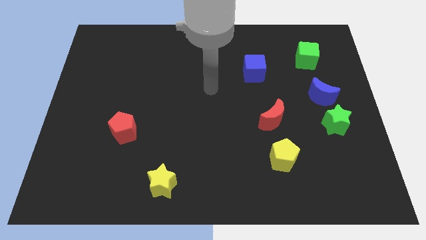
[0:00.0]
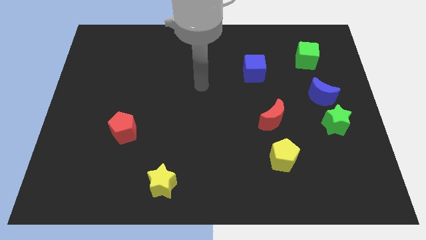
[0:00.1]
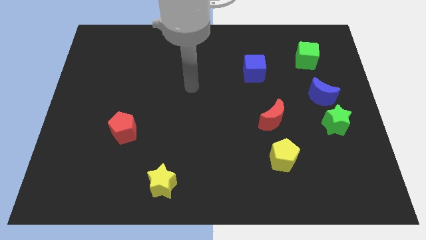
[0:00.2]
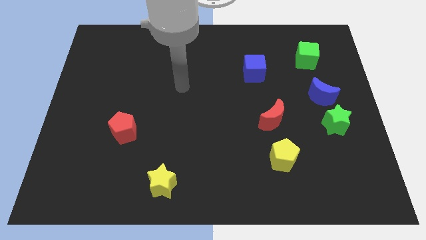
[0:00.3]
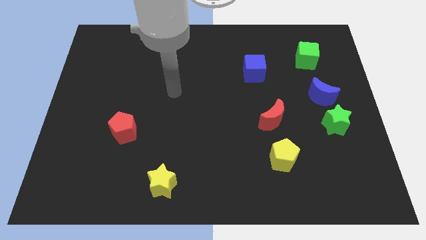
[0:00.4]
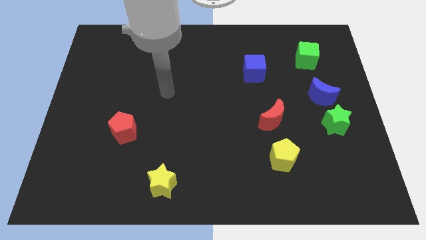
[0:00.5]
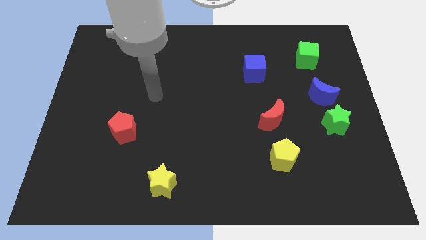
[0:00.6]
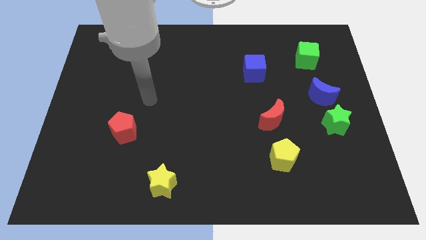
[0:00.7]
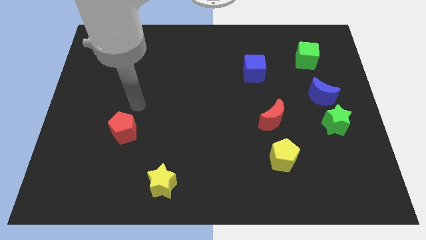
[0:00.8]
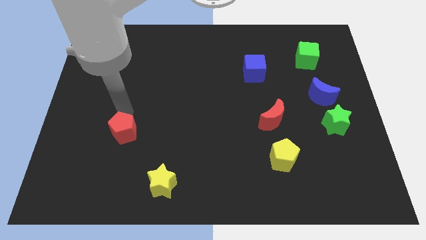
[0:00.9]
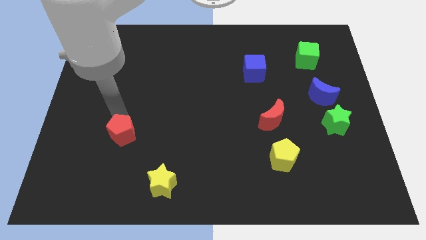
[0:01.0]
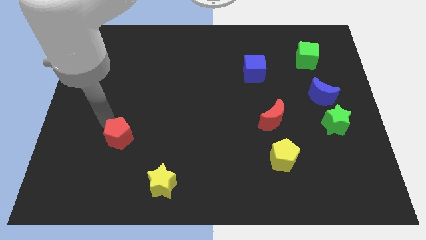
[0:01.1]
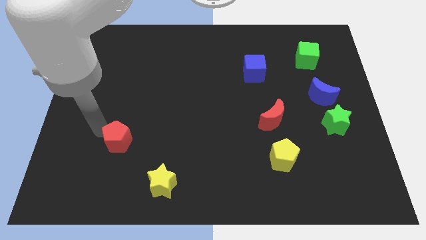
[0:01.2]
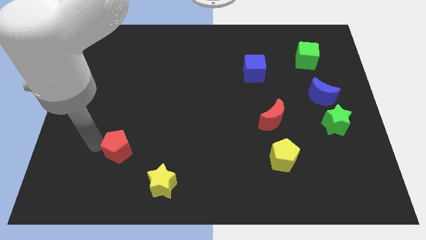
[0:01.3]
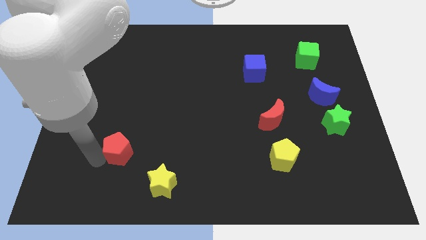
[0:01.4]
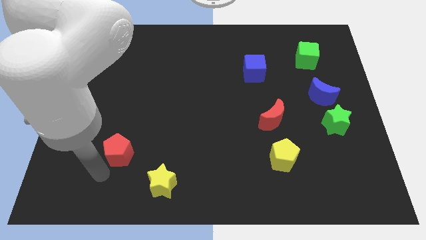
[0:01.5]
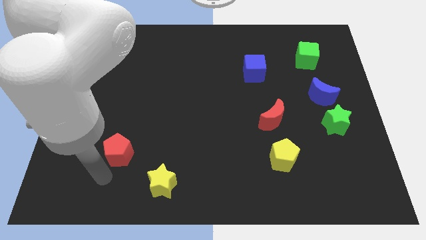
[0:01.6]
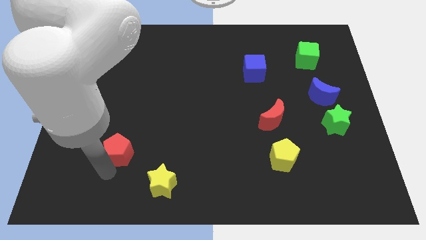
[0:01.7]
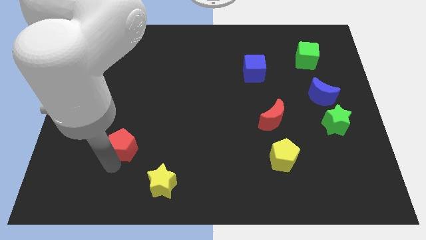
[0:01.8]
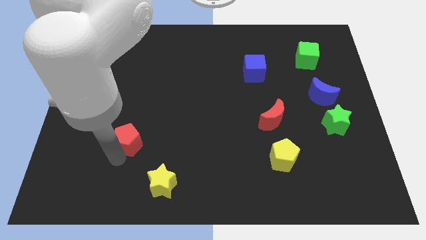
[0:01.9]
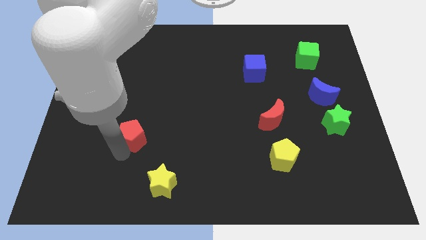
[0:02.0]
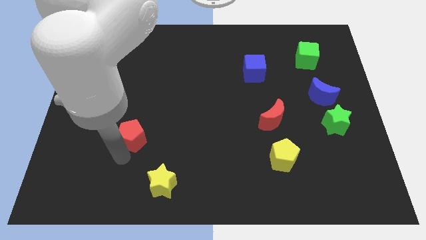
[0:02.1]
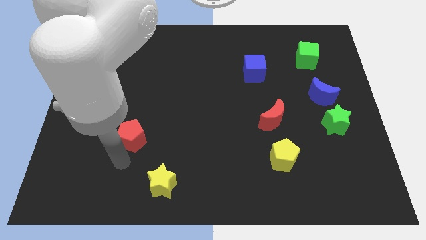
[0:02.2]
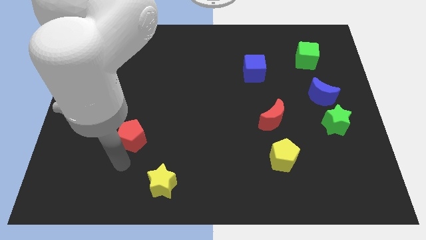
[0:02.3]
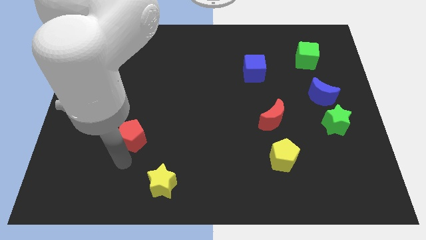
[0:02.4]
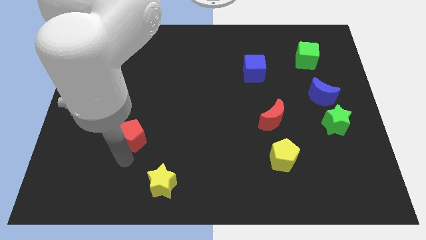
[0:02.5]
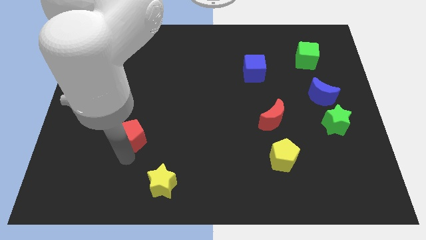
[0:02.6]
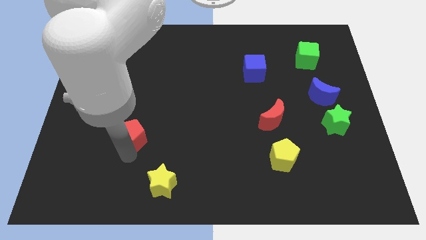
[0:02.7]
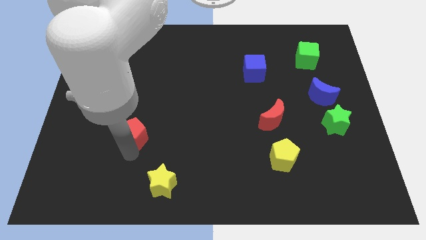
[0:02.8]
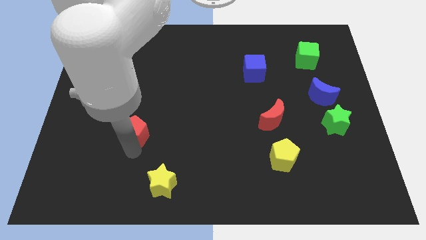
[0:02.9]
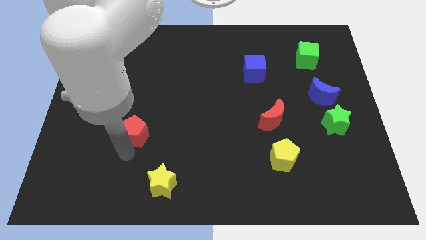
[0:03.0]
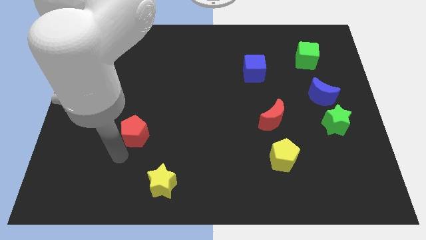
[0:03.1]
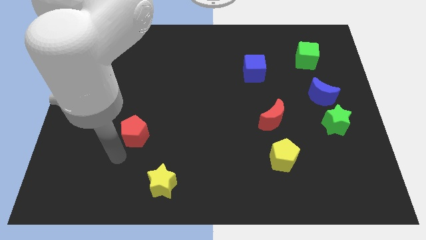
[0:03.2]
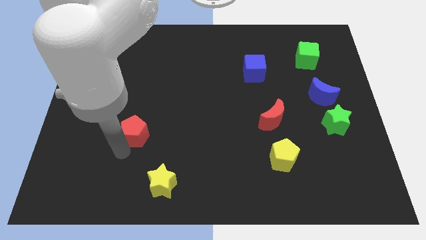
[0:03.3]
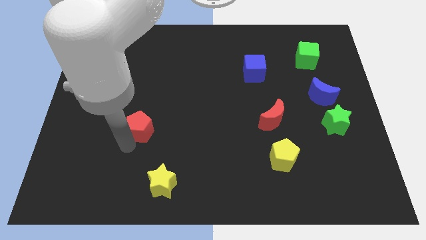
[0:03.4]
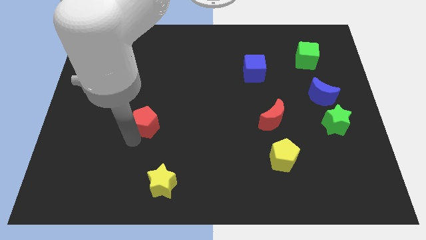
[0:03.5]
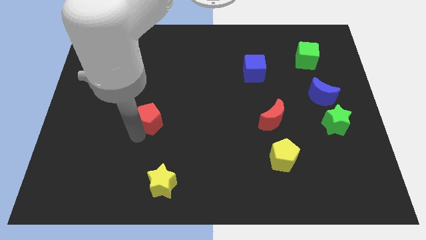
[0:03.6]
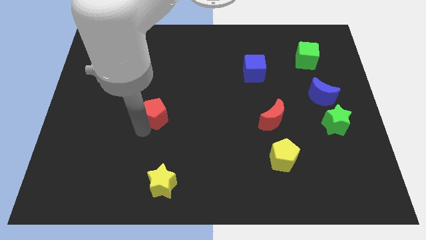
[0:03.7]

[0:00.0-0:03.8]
move the red pentagon a bit diagonally up and right

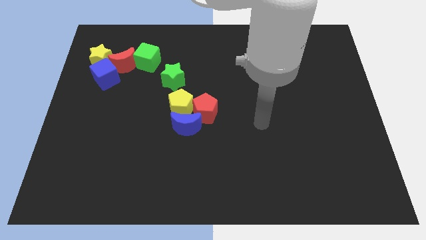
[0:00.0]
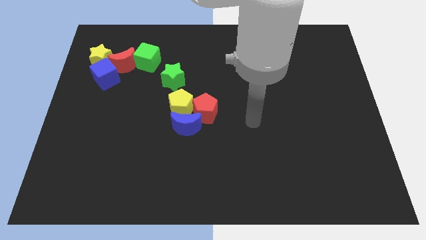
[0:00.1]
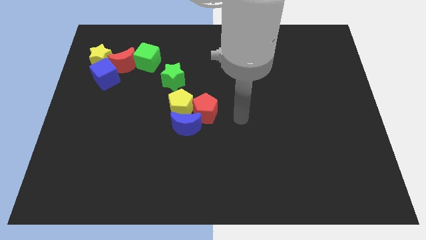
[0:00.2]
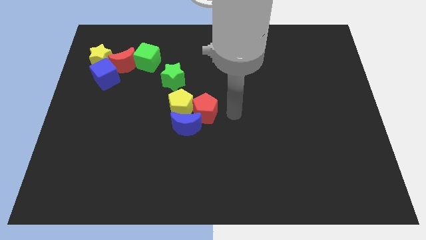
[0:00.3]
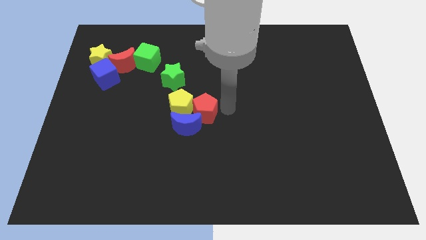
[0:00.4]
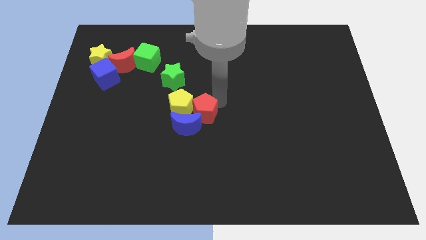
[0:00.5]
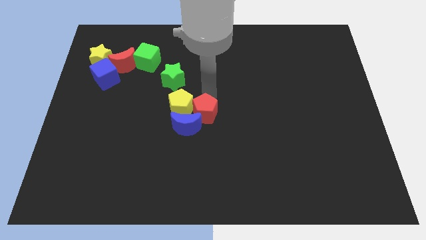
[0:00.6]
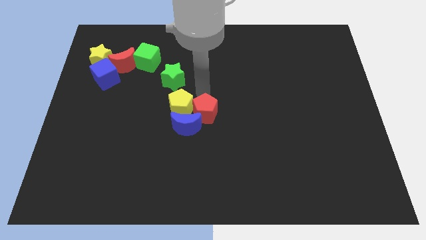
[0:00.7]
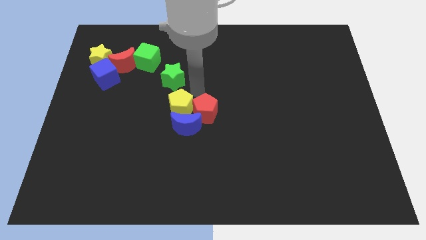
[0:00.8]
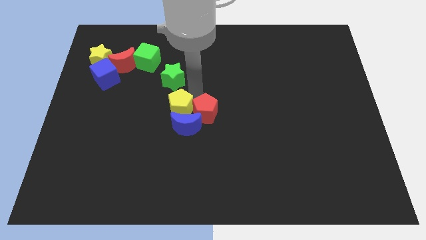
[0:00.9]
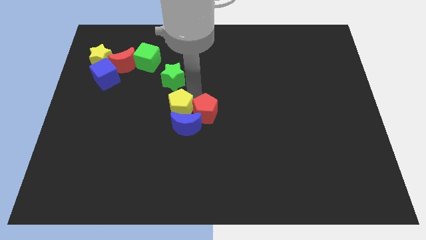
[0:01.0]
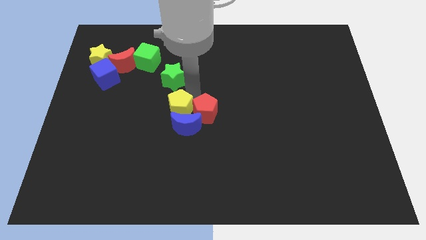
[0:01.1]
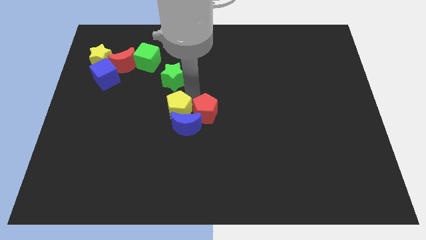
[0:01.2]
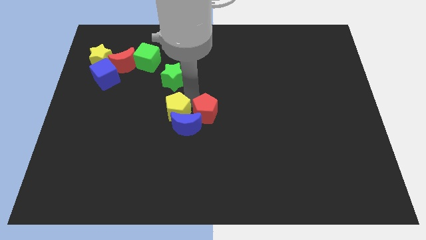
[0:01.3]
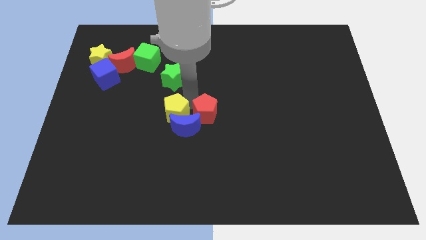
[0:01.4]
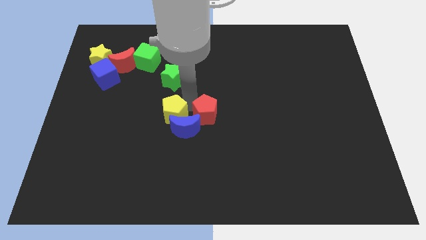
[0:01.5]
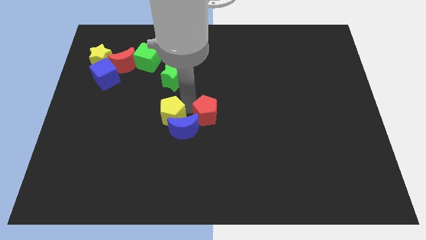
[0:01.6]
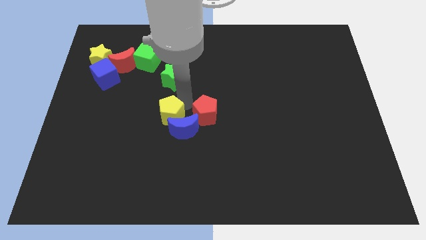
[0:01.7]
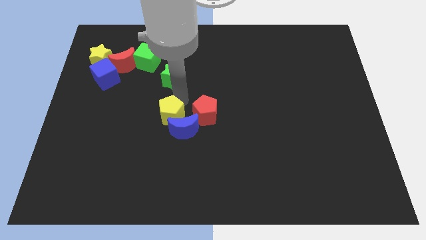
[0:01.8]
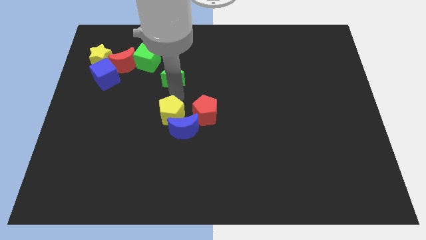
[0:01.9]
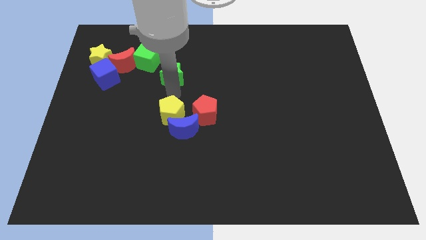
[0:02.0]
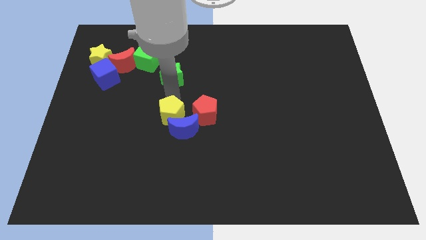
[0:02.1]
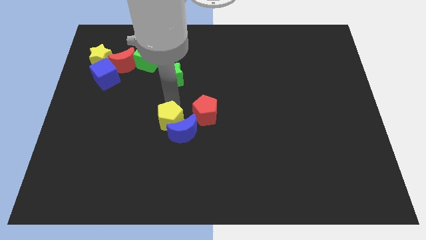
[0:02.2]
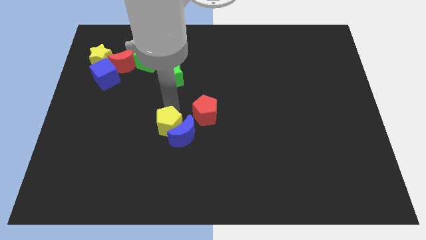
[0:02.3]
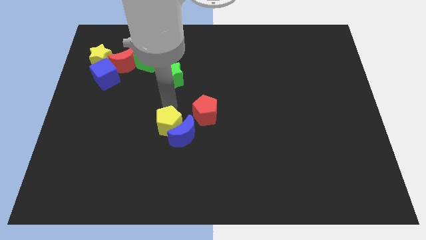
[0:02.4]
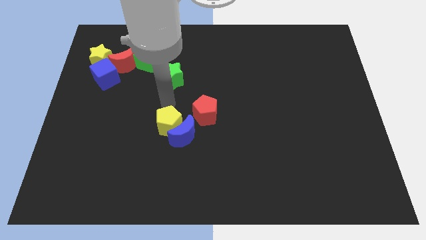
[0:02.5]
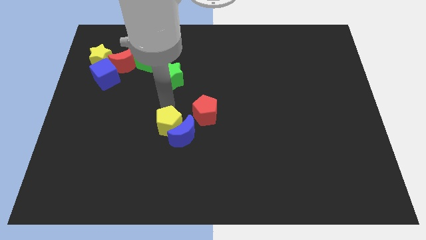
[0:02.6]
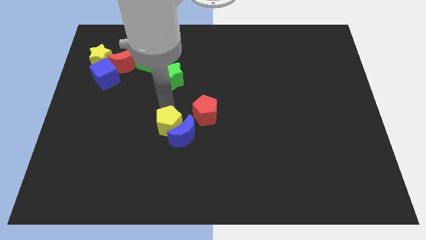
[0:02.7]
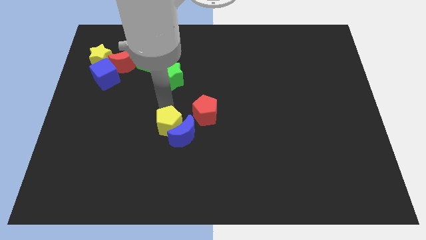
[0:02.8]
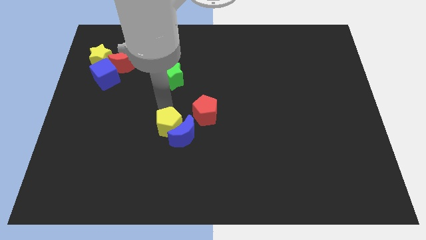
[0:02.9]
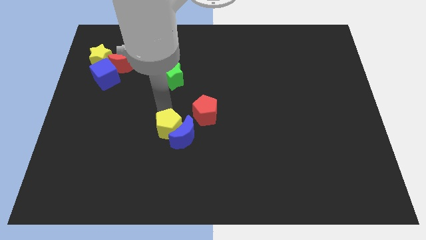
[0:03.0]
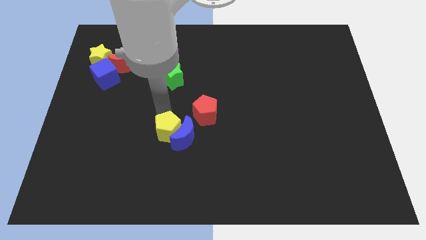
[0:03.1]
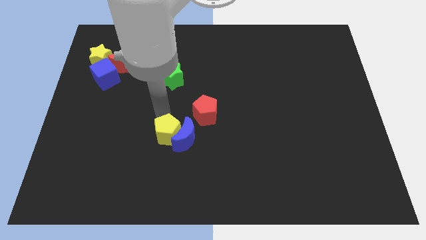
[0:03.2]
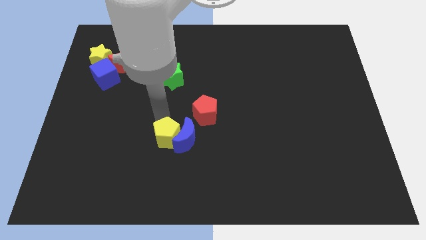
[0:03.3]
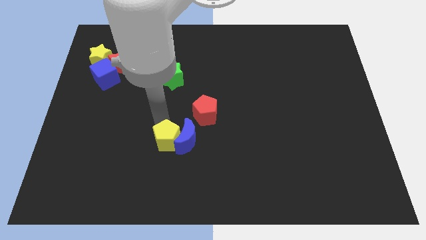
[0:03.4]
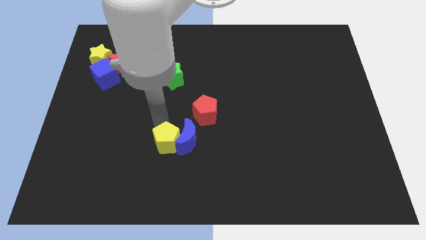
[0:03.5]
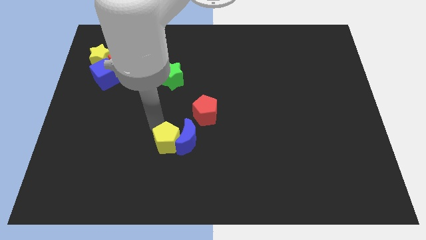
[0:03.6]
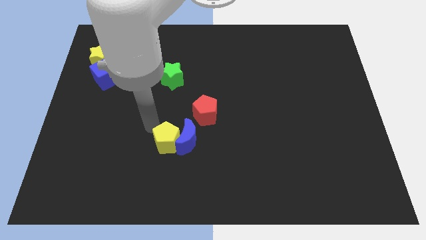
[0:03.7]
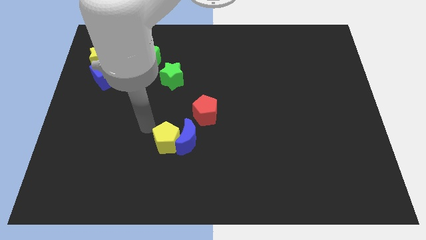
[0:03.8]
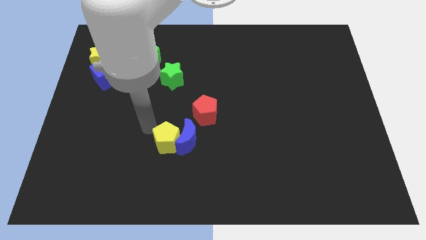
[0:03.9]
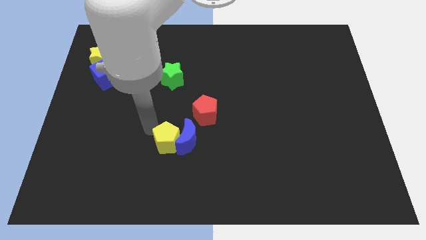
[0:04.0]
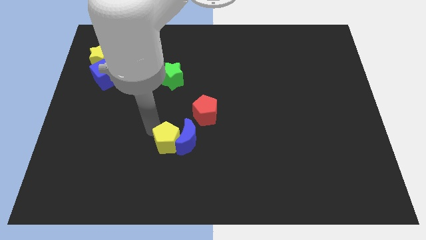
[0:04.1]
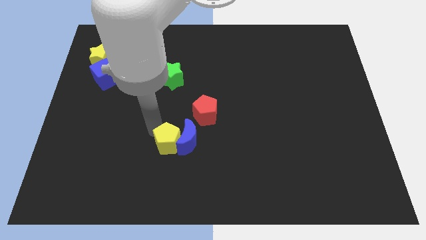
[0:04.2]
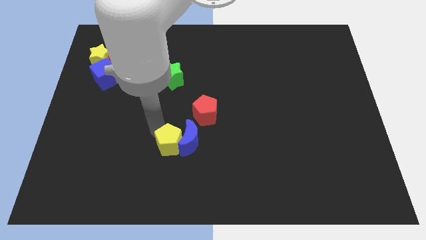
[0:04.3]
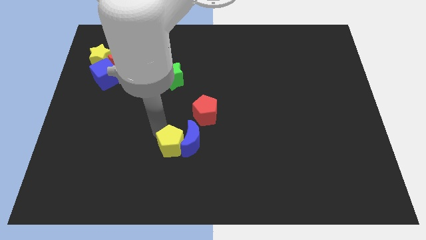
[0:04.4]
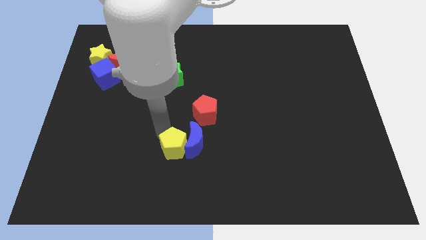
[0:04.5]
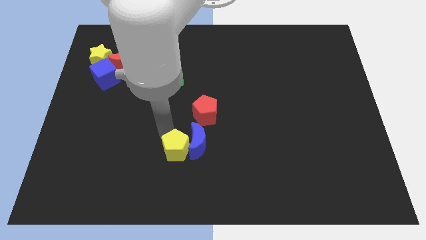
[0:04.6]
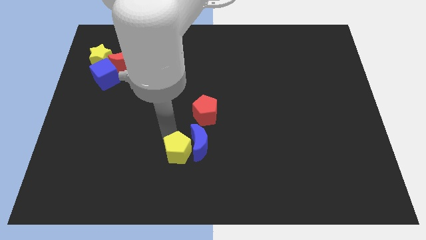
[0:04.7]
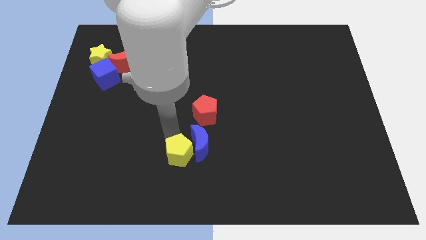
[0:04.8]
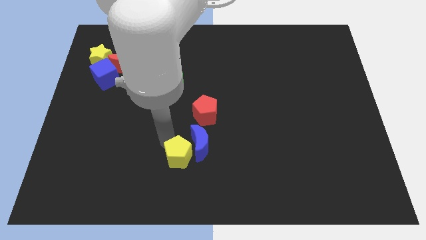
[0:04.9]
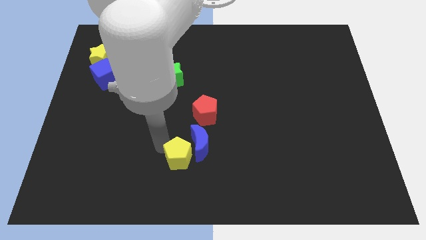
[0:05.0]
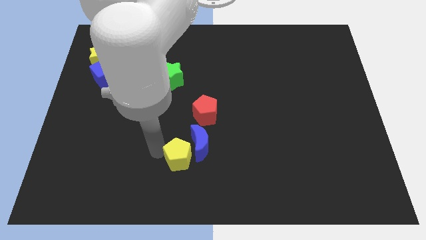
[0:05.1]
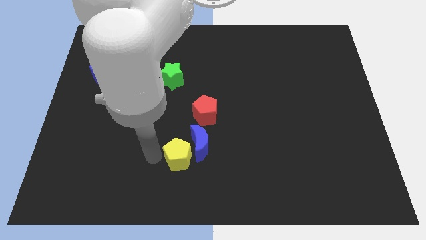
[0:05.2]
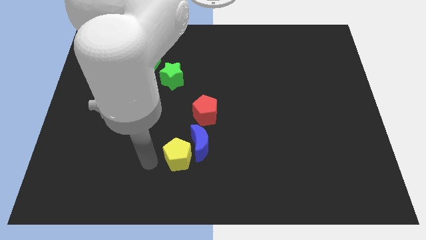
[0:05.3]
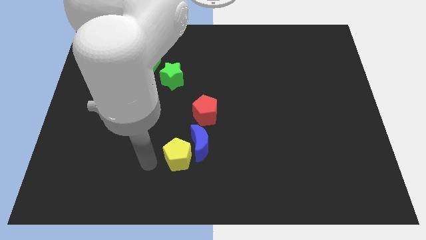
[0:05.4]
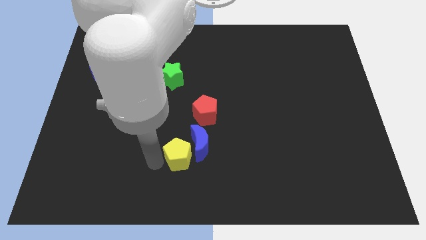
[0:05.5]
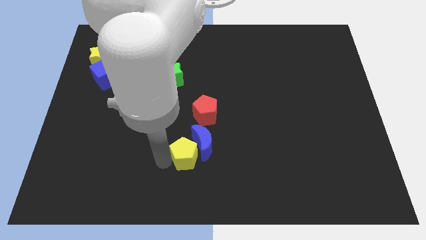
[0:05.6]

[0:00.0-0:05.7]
push the yellow pentagon down and right diagonally a little bit
